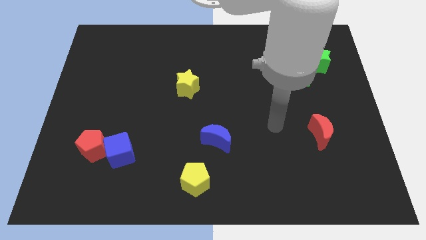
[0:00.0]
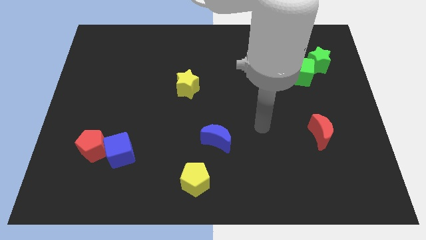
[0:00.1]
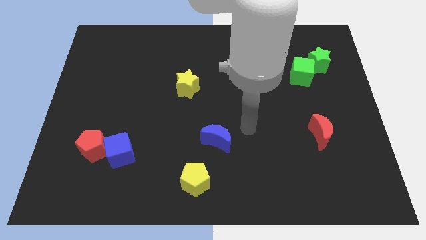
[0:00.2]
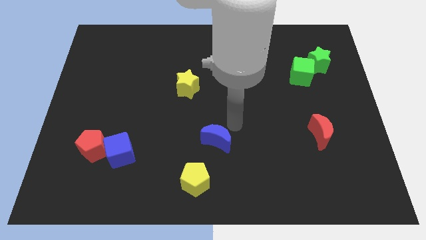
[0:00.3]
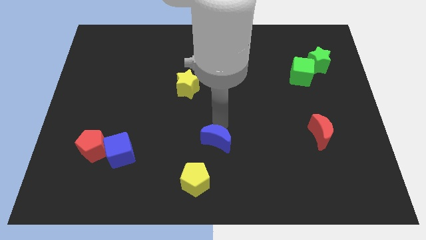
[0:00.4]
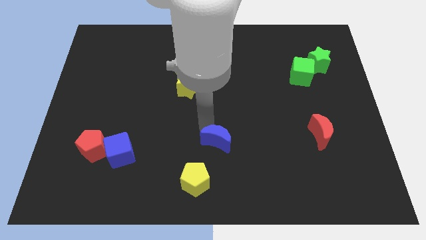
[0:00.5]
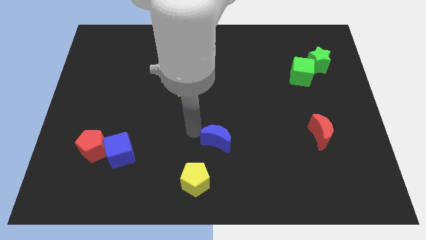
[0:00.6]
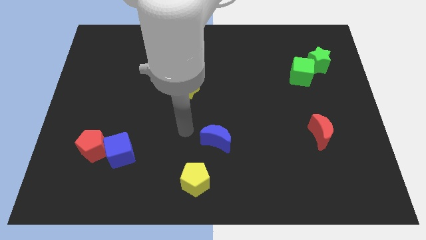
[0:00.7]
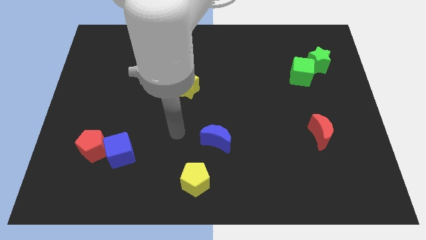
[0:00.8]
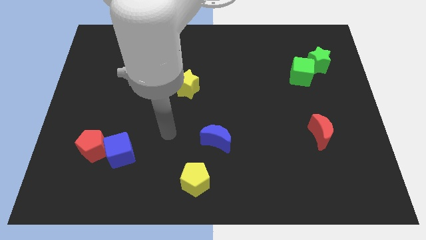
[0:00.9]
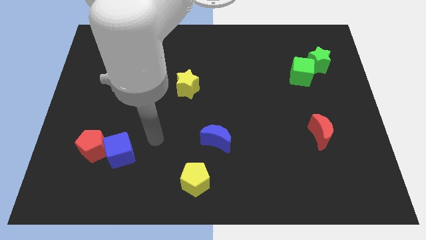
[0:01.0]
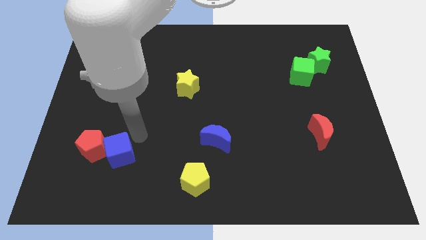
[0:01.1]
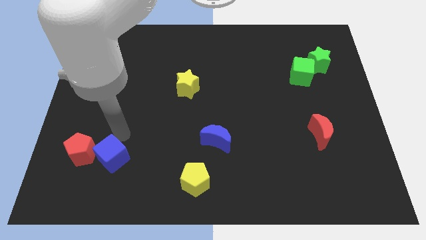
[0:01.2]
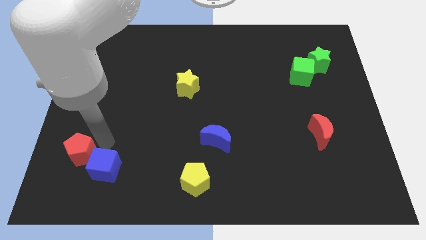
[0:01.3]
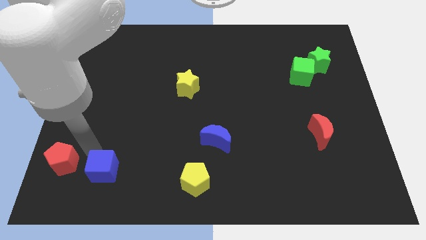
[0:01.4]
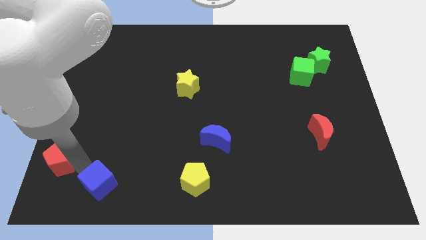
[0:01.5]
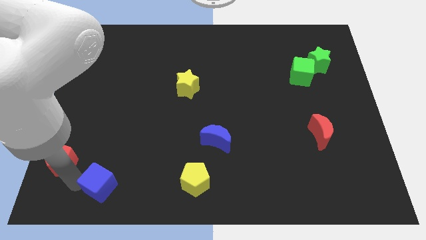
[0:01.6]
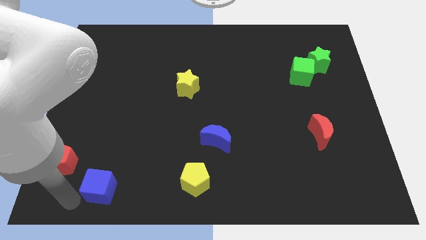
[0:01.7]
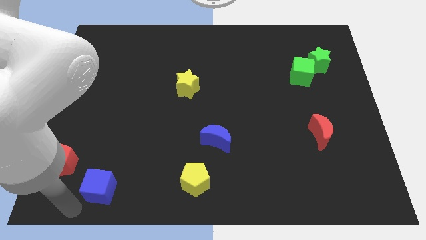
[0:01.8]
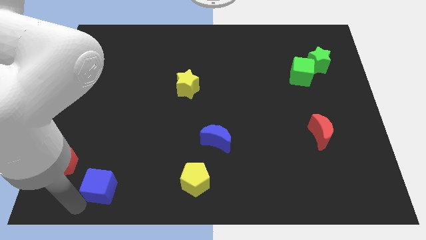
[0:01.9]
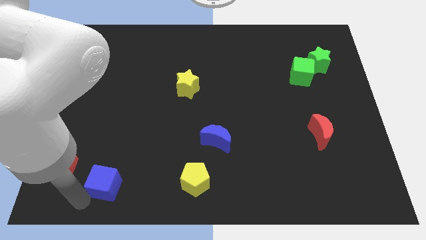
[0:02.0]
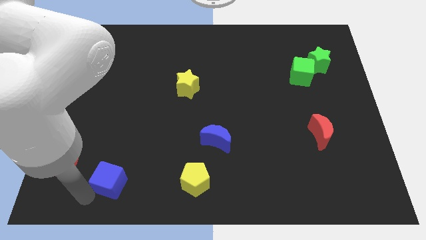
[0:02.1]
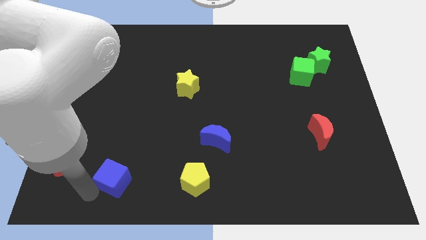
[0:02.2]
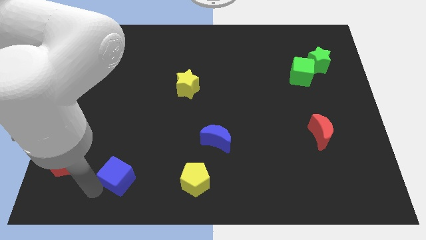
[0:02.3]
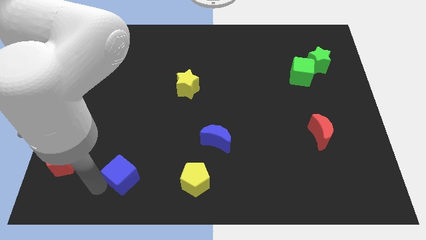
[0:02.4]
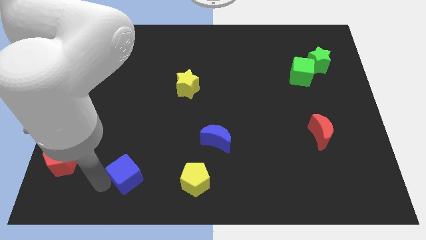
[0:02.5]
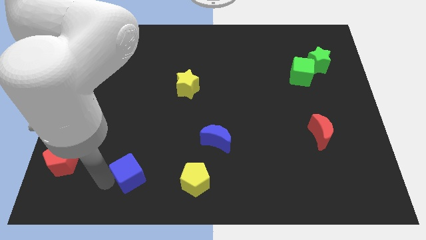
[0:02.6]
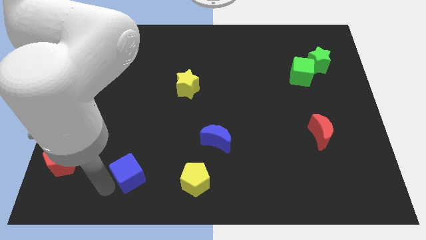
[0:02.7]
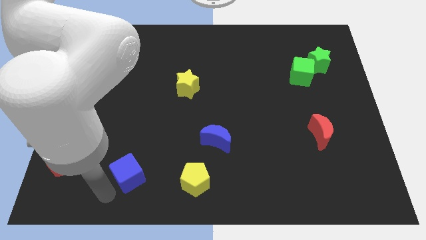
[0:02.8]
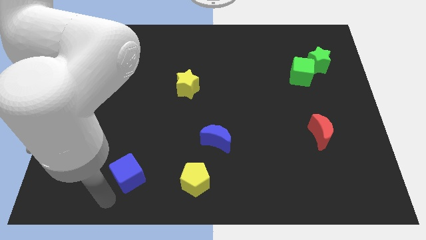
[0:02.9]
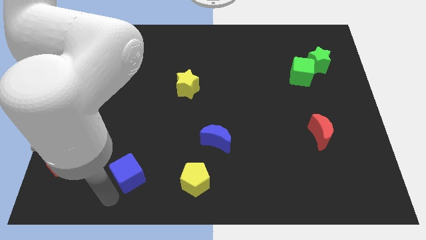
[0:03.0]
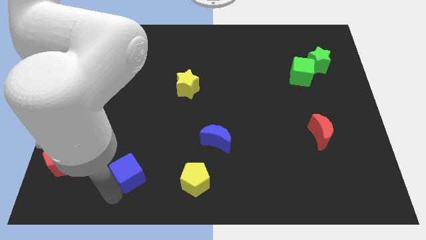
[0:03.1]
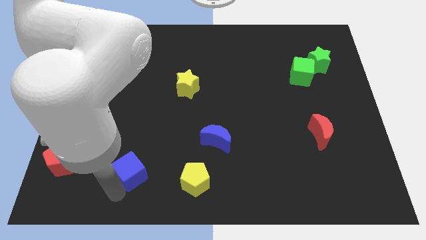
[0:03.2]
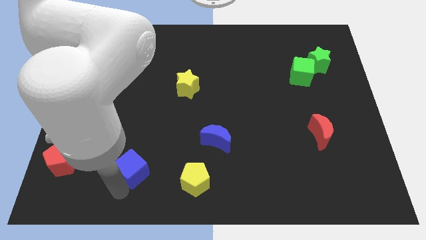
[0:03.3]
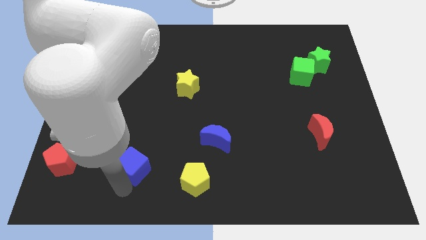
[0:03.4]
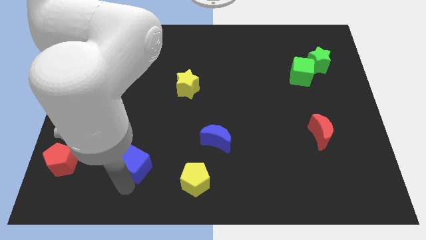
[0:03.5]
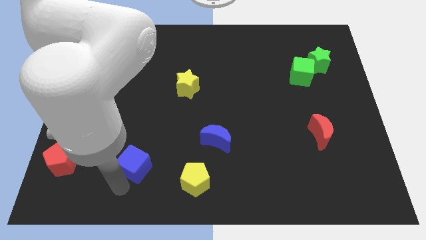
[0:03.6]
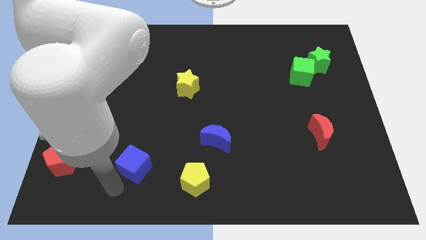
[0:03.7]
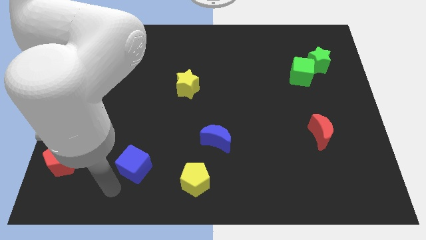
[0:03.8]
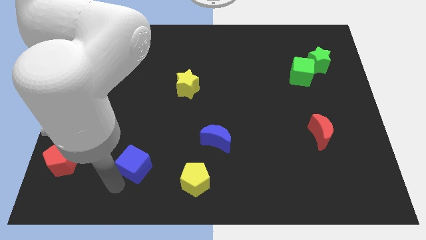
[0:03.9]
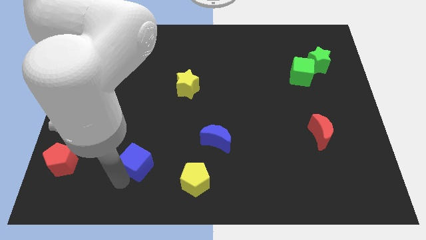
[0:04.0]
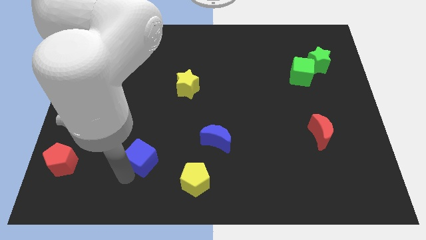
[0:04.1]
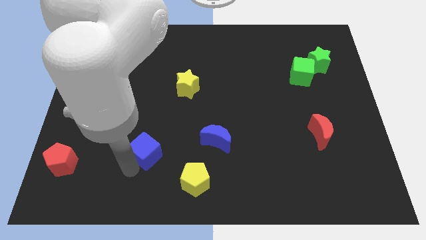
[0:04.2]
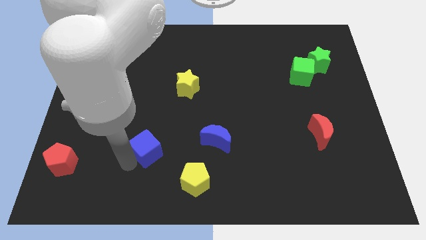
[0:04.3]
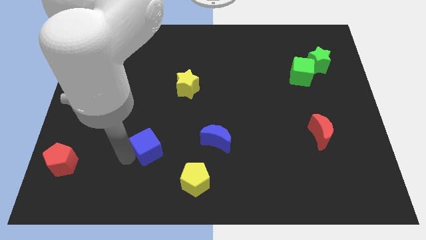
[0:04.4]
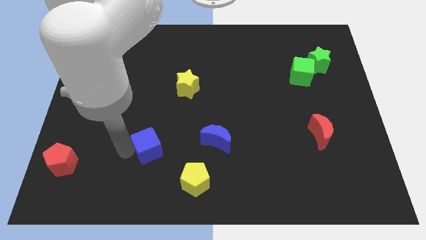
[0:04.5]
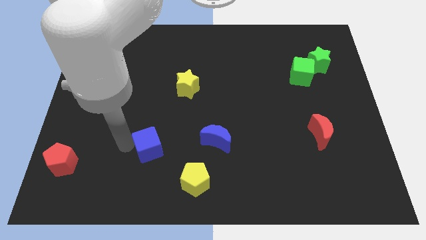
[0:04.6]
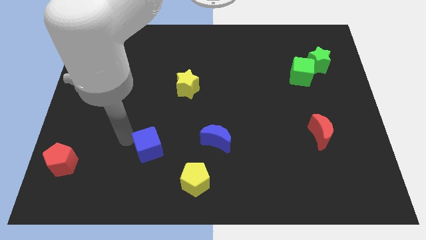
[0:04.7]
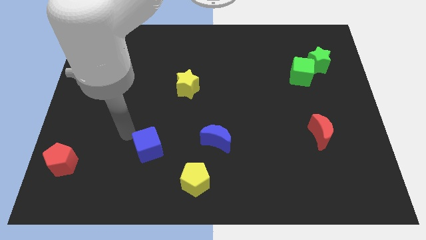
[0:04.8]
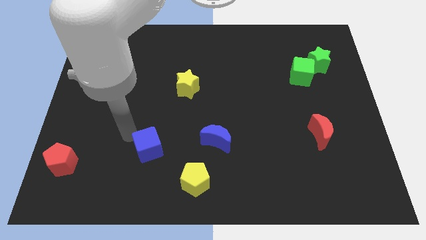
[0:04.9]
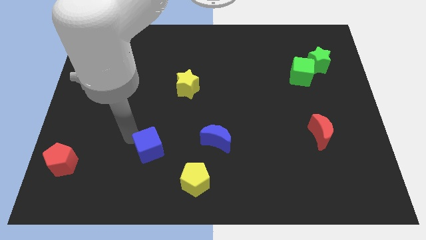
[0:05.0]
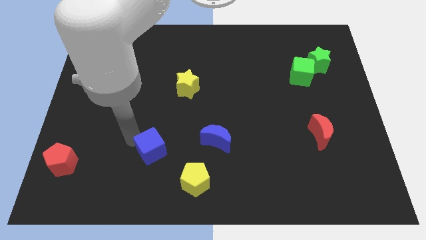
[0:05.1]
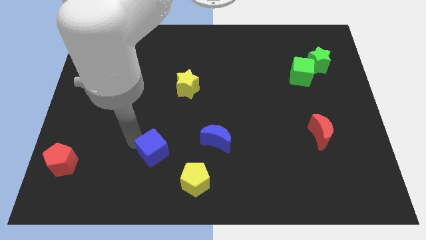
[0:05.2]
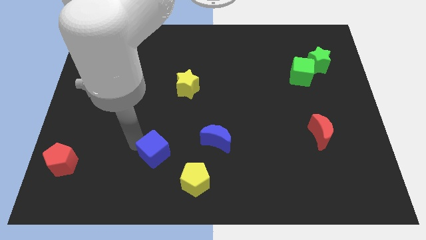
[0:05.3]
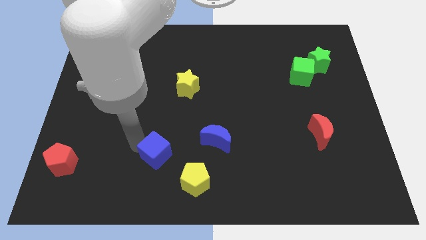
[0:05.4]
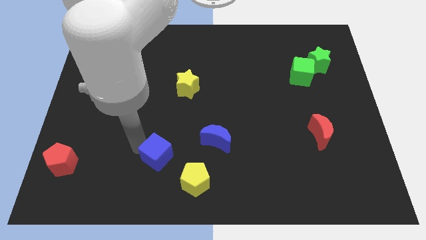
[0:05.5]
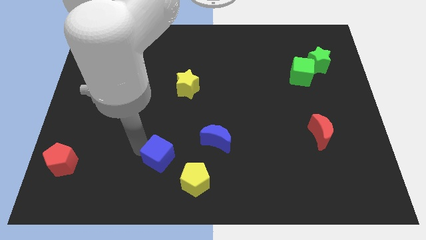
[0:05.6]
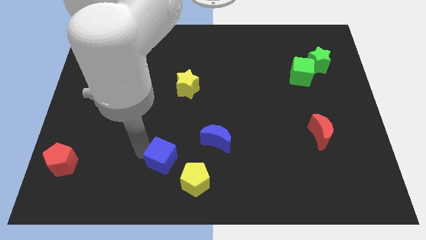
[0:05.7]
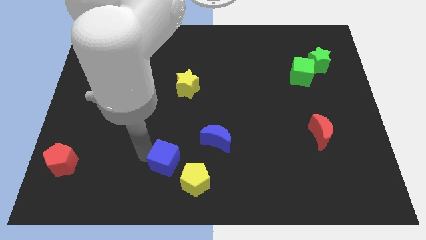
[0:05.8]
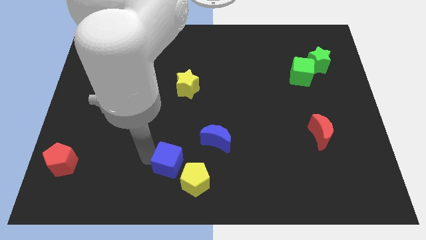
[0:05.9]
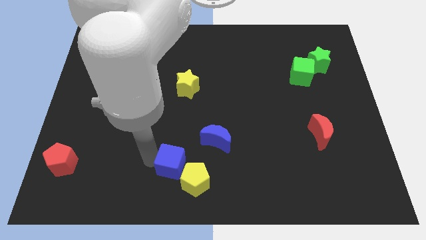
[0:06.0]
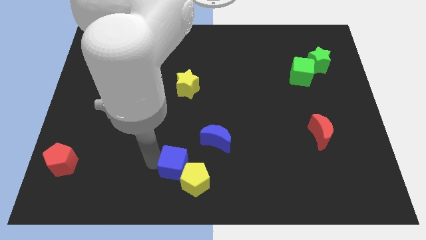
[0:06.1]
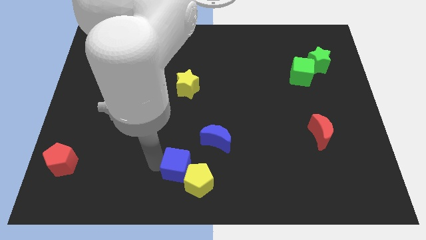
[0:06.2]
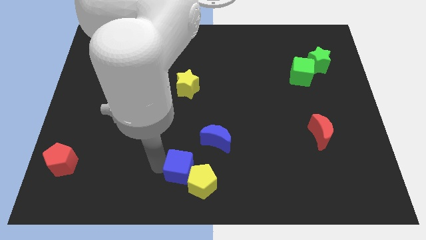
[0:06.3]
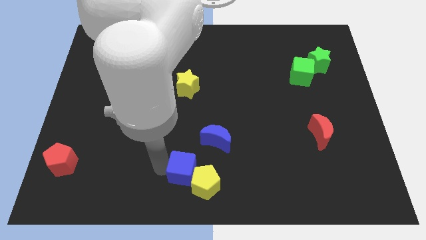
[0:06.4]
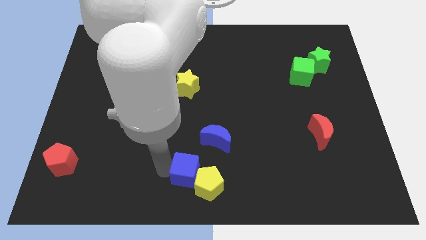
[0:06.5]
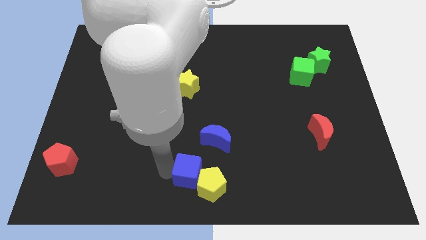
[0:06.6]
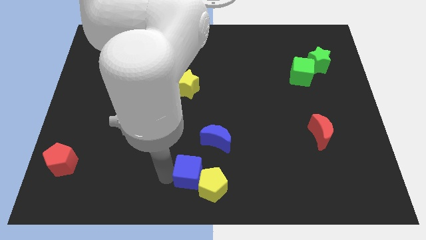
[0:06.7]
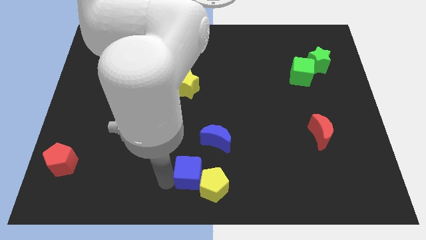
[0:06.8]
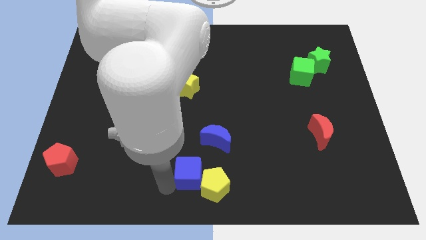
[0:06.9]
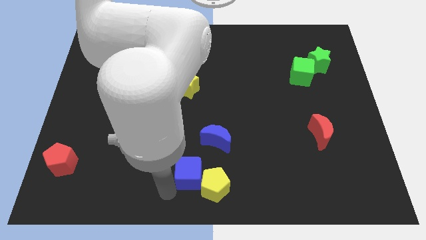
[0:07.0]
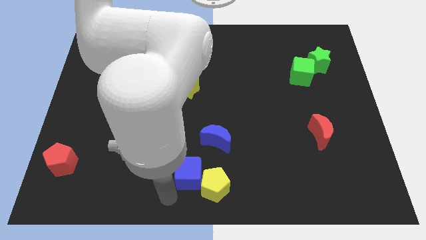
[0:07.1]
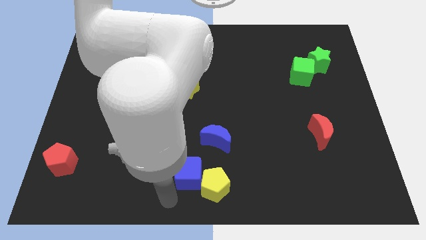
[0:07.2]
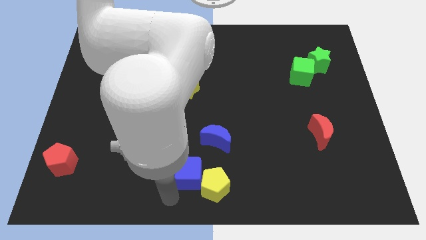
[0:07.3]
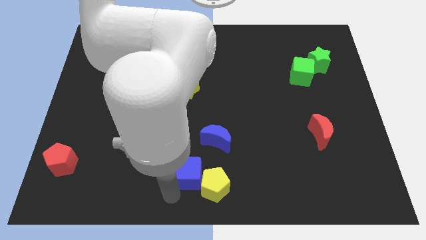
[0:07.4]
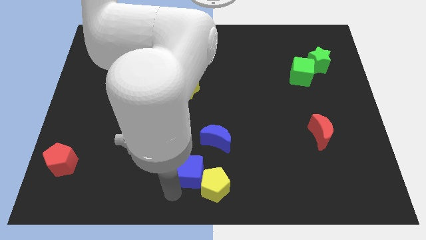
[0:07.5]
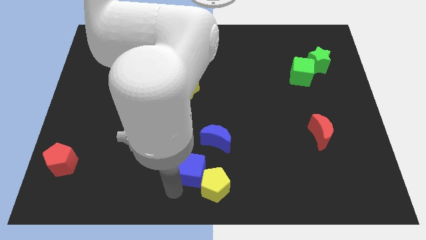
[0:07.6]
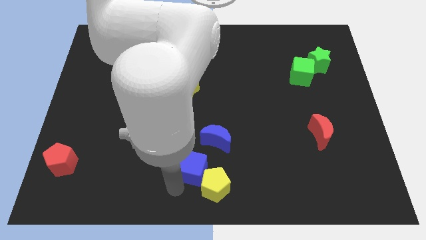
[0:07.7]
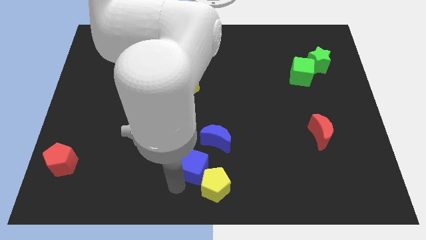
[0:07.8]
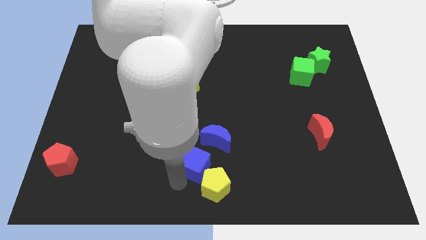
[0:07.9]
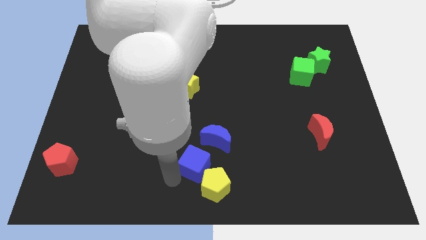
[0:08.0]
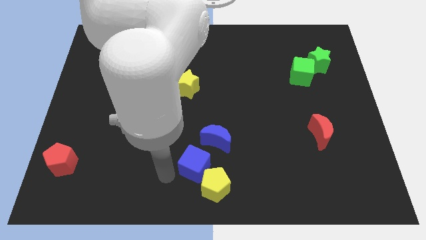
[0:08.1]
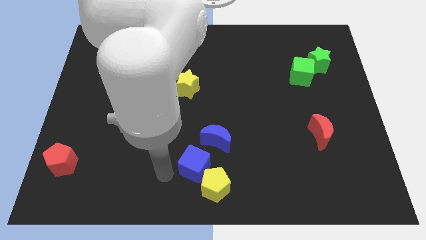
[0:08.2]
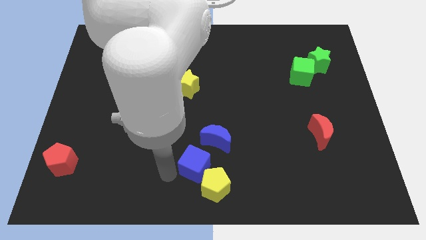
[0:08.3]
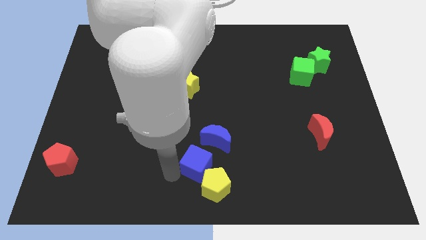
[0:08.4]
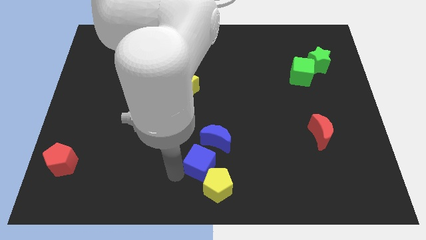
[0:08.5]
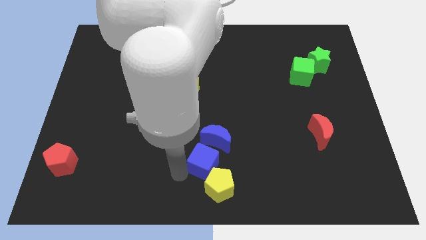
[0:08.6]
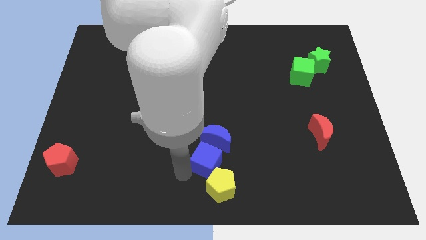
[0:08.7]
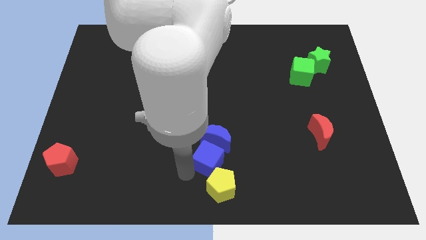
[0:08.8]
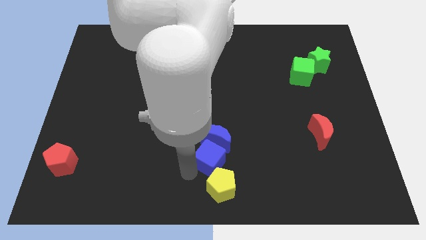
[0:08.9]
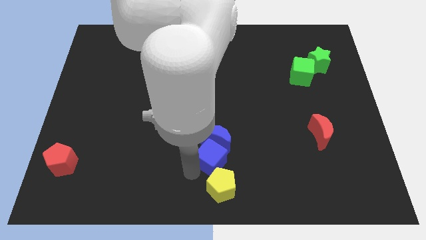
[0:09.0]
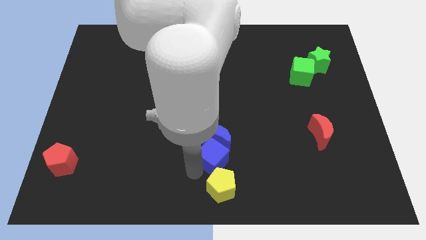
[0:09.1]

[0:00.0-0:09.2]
move the blue cube to the right
